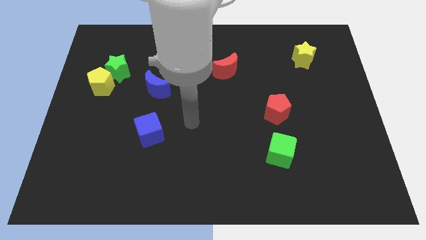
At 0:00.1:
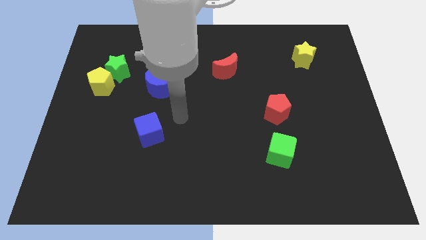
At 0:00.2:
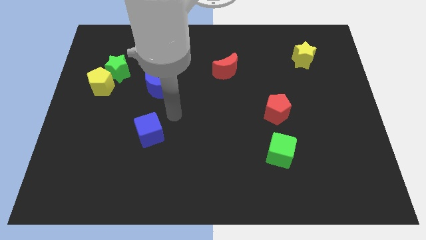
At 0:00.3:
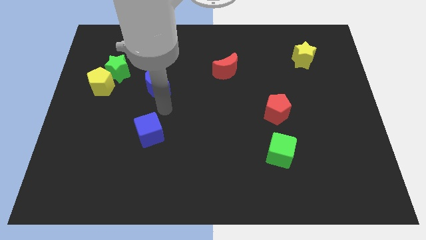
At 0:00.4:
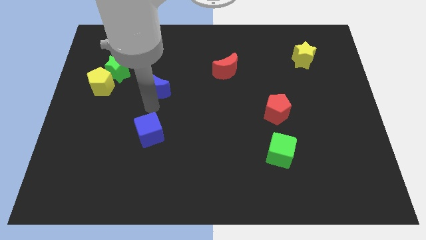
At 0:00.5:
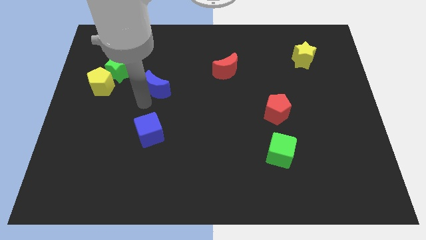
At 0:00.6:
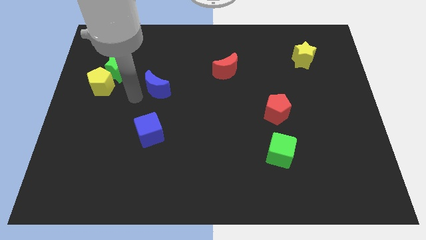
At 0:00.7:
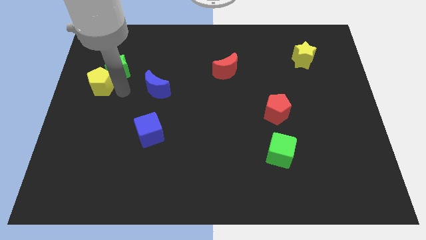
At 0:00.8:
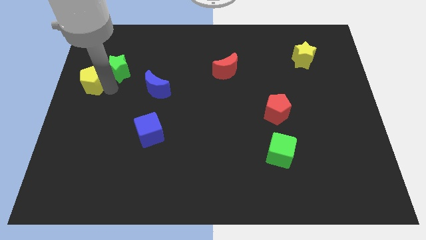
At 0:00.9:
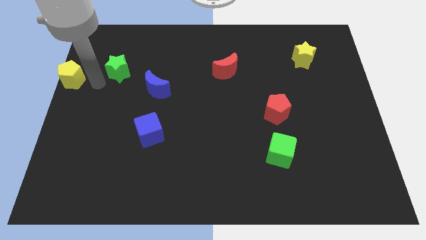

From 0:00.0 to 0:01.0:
pull the green star apart from the yellow pentagon

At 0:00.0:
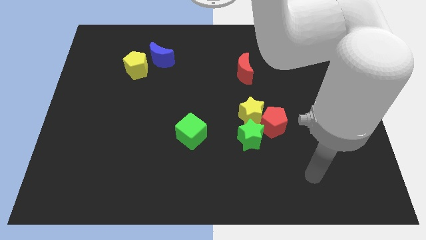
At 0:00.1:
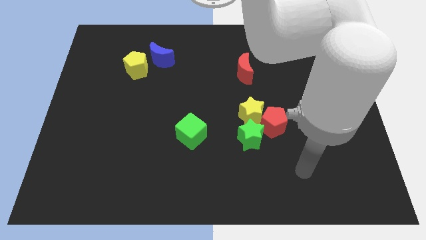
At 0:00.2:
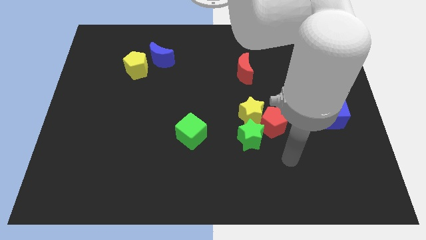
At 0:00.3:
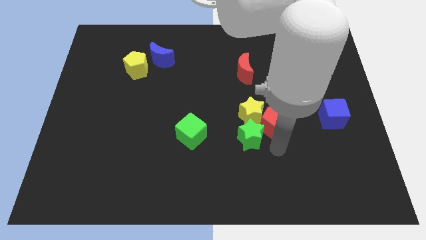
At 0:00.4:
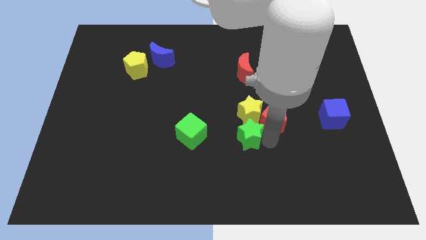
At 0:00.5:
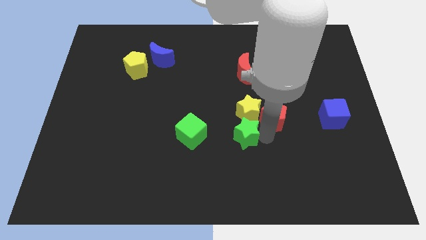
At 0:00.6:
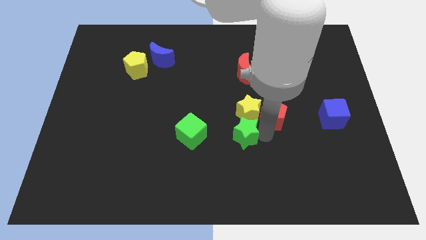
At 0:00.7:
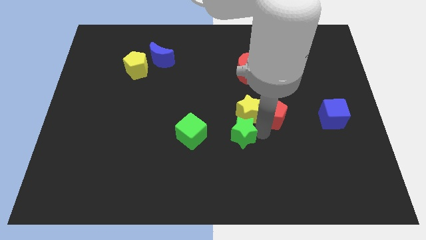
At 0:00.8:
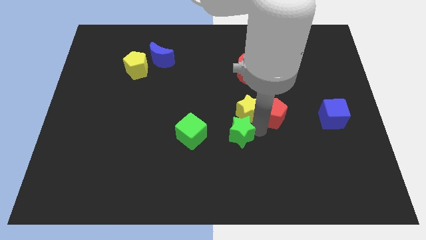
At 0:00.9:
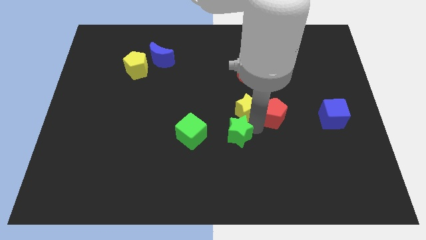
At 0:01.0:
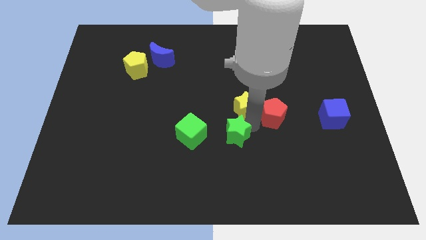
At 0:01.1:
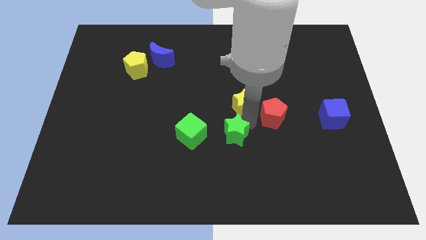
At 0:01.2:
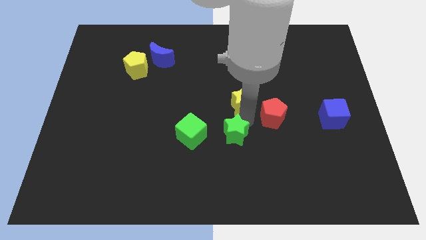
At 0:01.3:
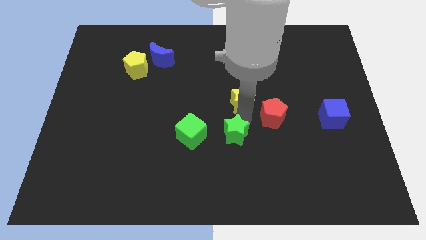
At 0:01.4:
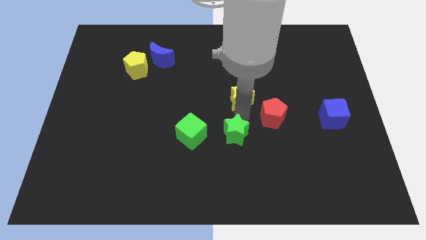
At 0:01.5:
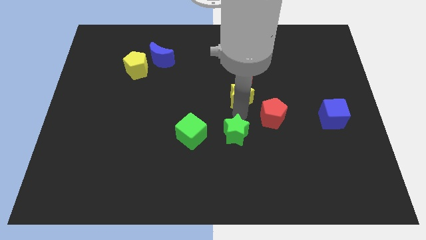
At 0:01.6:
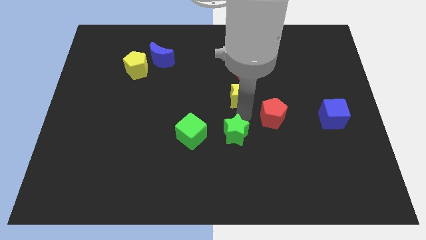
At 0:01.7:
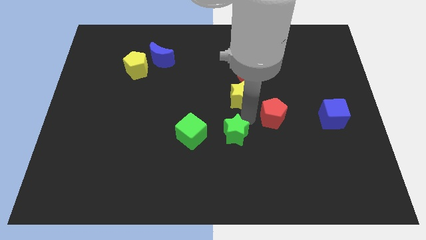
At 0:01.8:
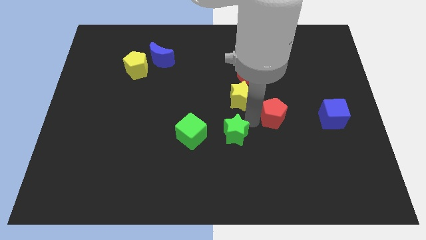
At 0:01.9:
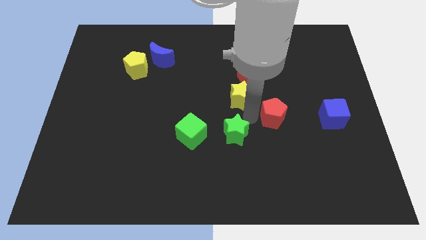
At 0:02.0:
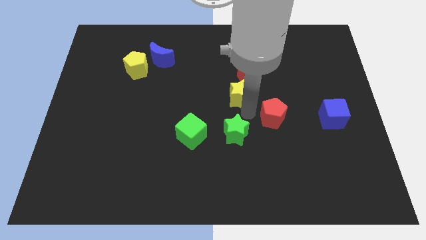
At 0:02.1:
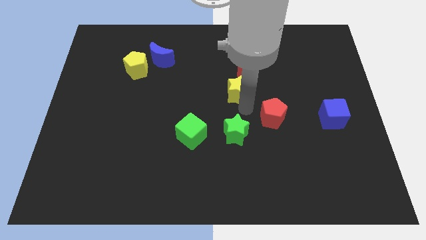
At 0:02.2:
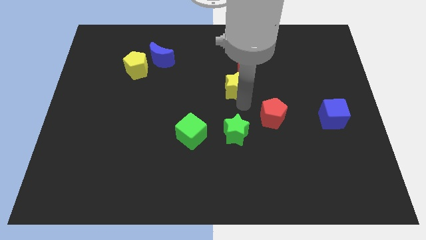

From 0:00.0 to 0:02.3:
move the yellow star away from the red pentagon and green star

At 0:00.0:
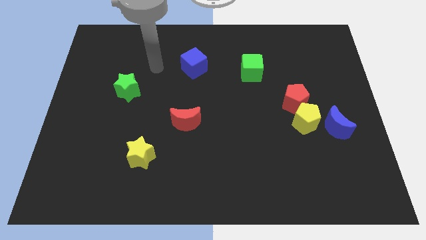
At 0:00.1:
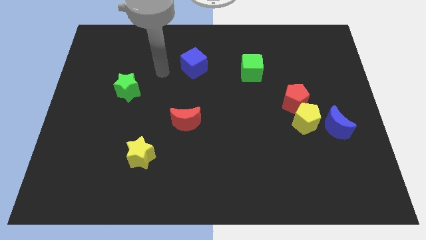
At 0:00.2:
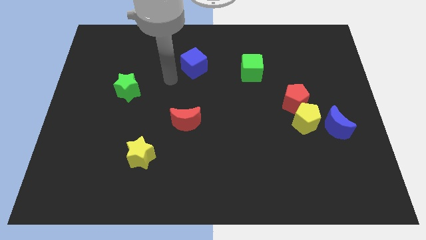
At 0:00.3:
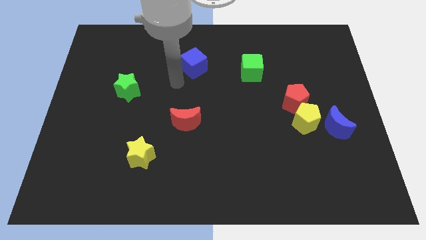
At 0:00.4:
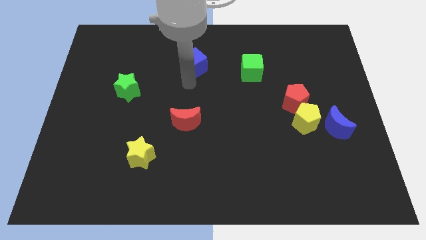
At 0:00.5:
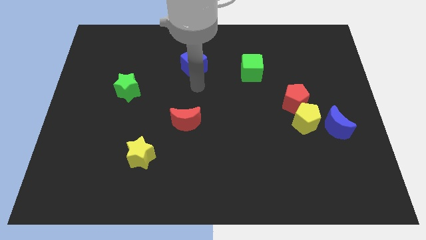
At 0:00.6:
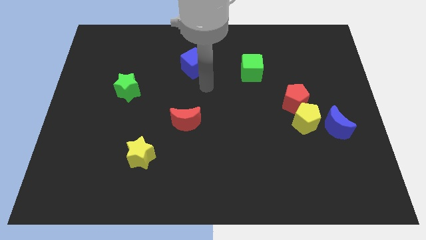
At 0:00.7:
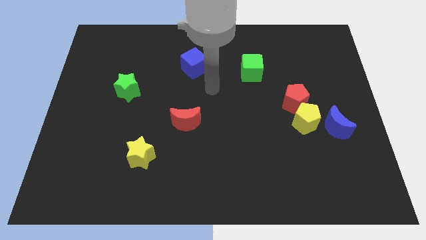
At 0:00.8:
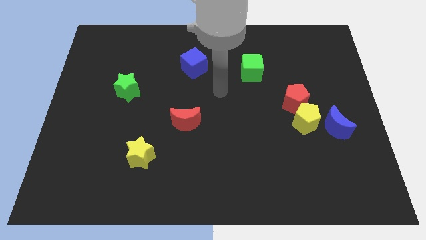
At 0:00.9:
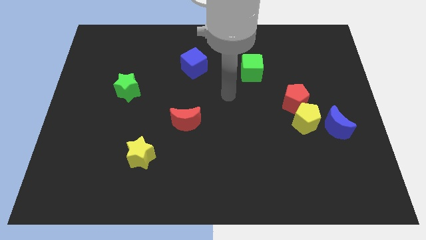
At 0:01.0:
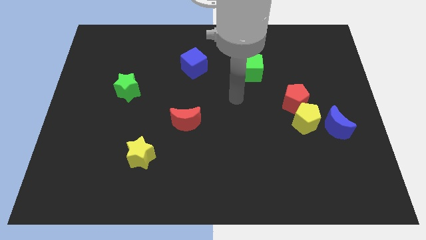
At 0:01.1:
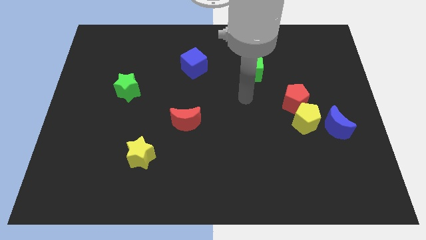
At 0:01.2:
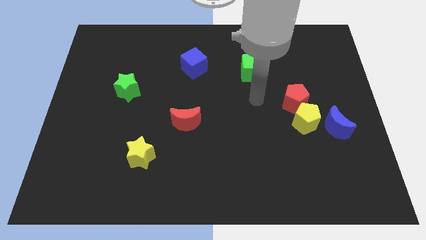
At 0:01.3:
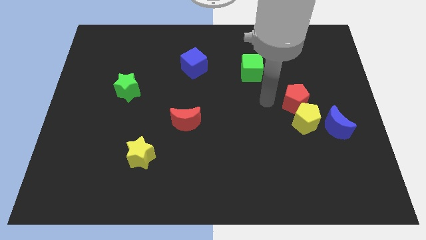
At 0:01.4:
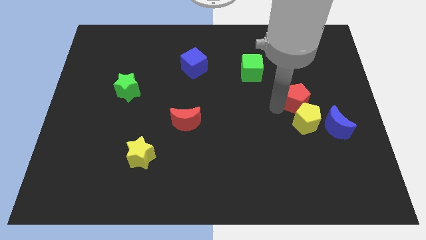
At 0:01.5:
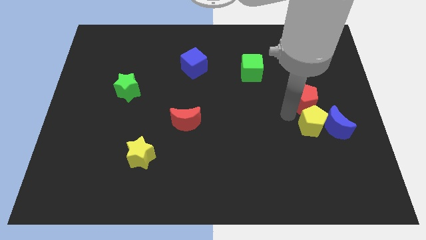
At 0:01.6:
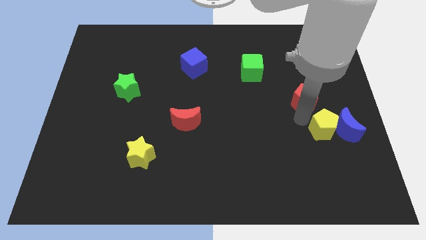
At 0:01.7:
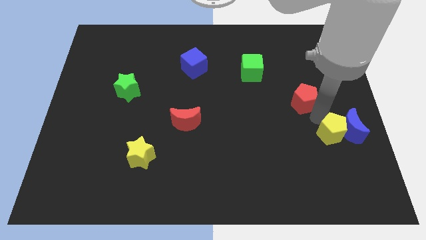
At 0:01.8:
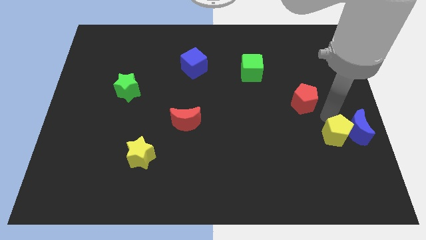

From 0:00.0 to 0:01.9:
separate the red pentagon from the yellow pentagon

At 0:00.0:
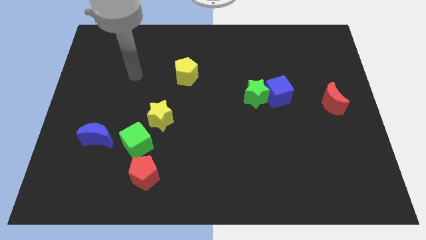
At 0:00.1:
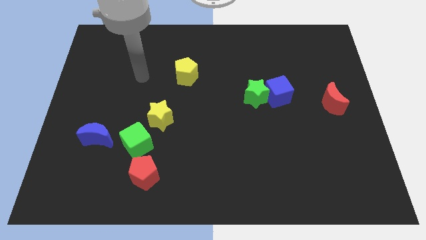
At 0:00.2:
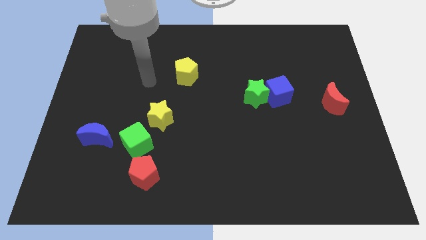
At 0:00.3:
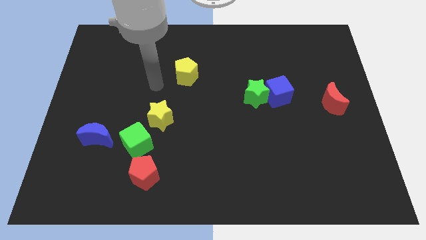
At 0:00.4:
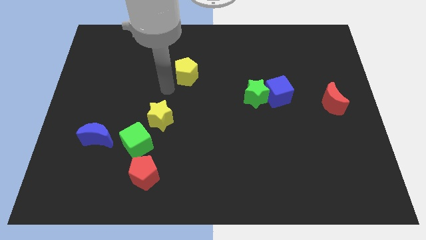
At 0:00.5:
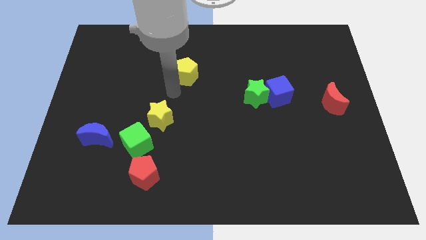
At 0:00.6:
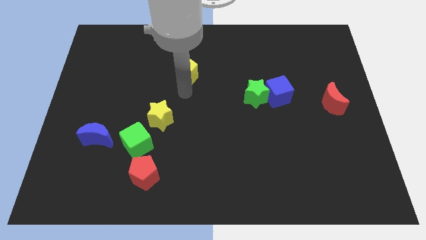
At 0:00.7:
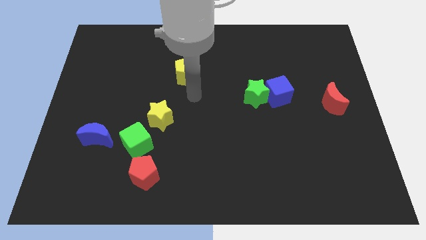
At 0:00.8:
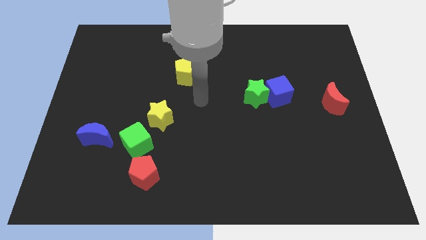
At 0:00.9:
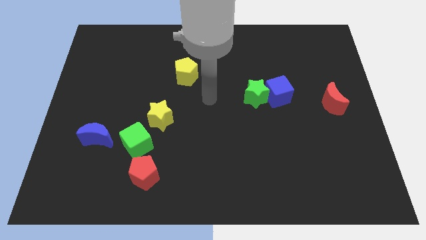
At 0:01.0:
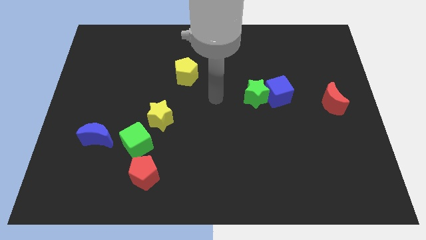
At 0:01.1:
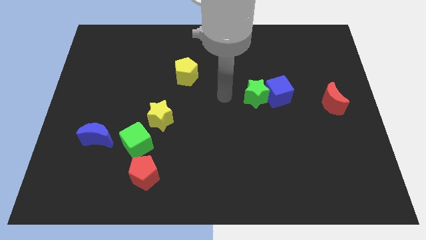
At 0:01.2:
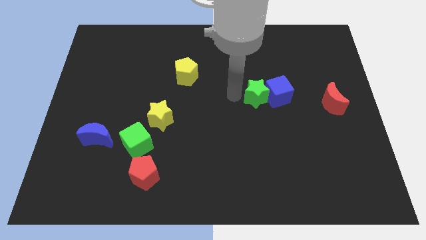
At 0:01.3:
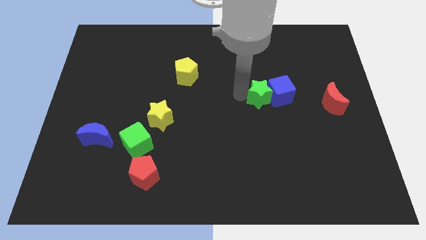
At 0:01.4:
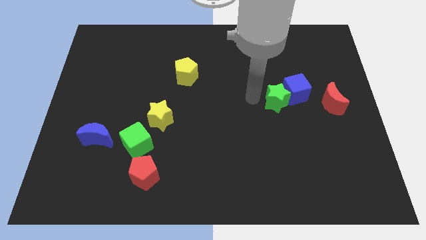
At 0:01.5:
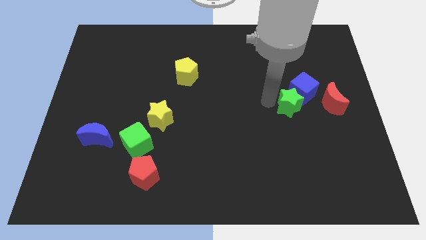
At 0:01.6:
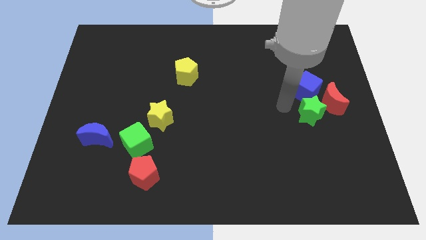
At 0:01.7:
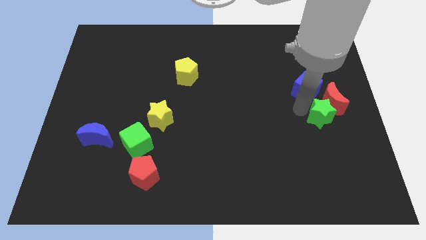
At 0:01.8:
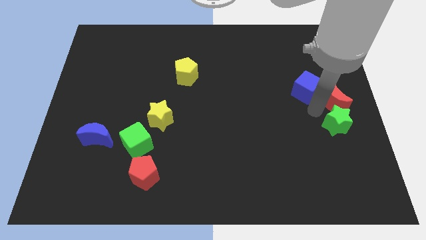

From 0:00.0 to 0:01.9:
move the blue cube away from the green star

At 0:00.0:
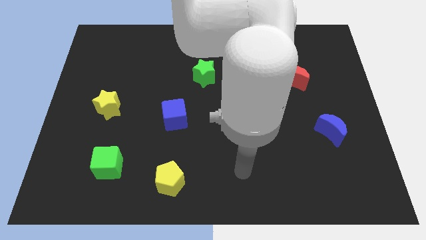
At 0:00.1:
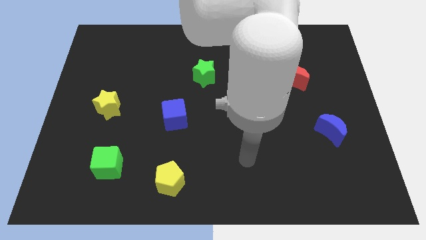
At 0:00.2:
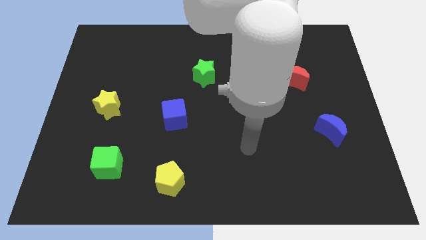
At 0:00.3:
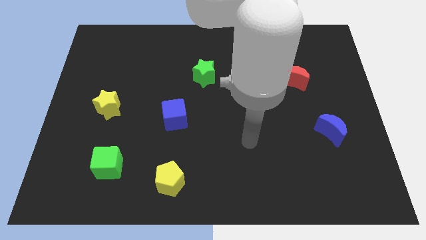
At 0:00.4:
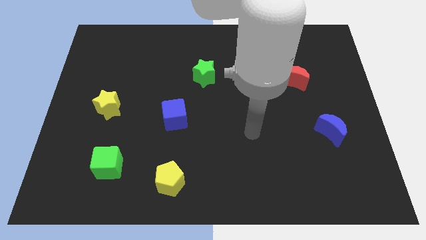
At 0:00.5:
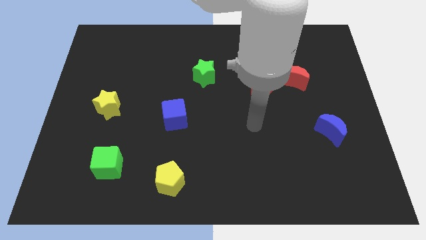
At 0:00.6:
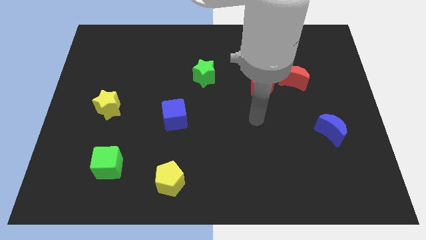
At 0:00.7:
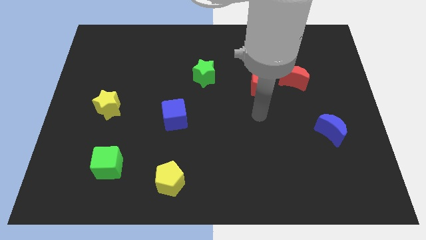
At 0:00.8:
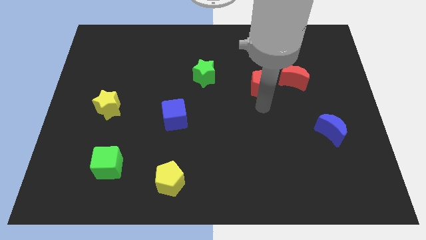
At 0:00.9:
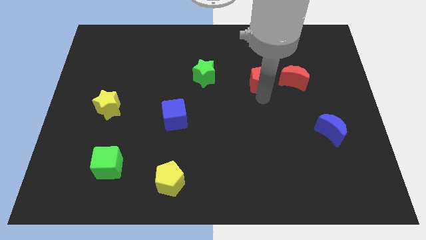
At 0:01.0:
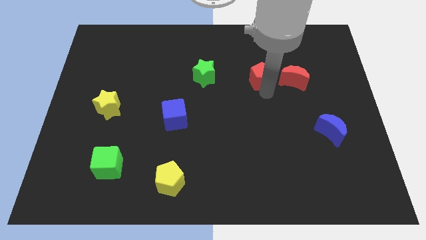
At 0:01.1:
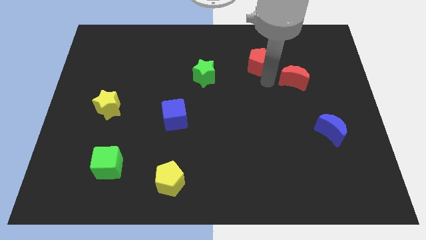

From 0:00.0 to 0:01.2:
pull the red moon apart from the red pentagon

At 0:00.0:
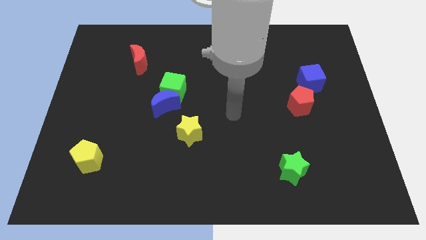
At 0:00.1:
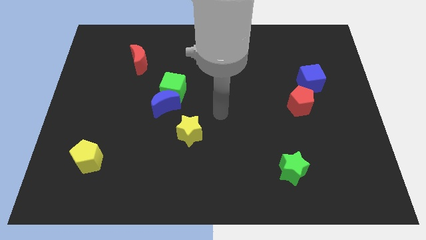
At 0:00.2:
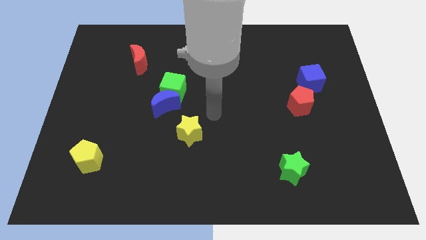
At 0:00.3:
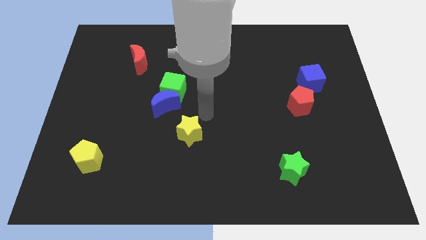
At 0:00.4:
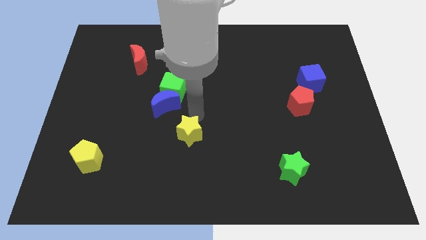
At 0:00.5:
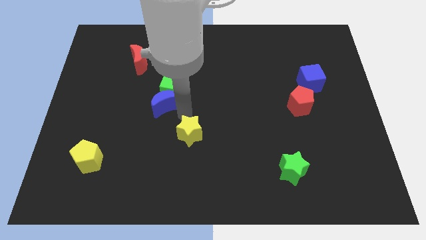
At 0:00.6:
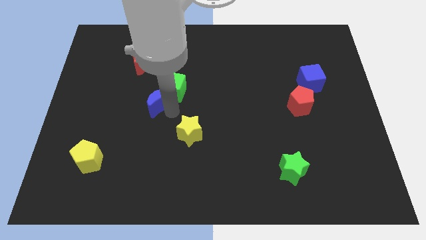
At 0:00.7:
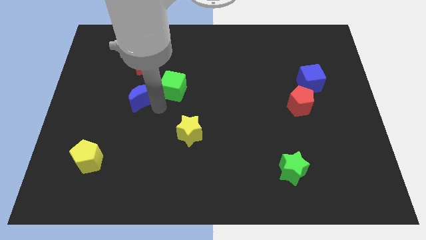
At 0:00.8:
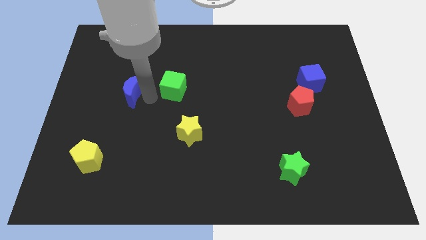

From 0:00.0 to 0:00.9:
separate the green cube from the blue moon

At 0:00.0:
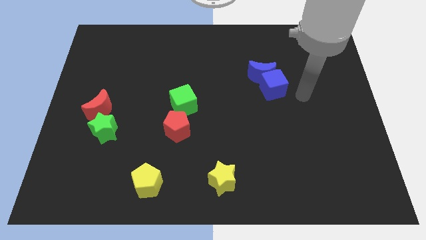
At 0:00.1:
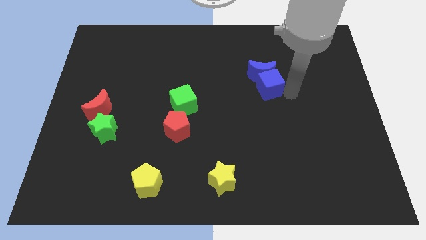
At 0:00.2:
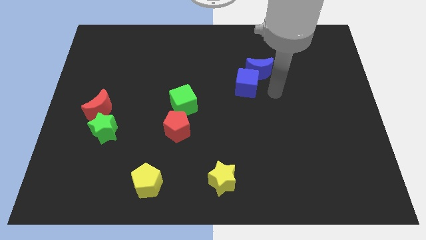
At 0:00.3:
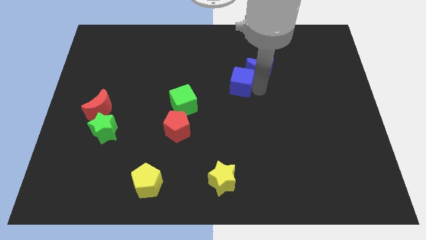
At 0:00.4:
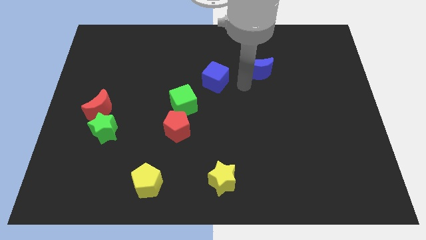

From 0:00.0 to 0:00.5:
move the blue moon away from the blue cube
